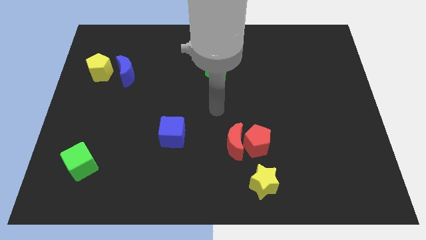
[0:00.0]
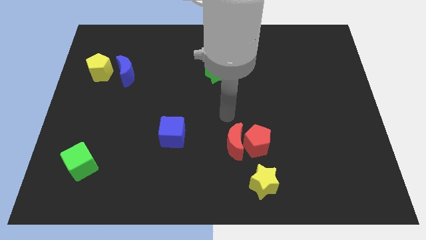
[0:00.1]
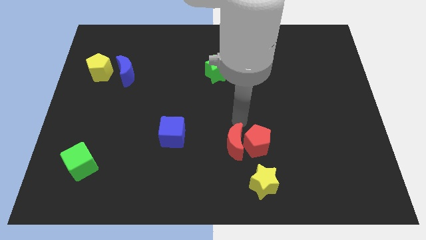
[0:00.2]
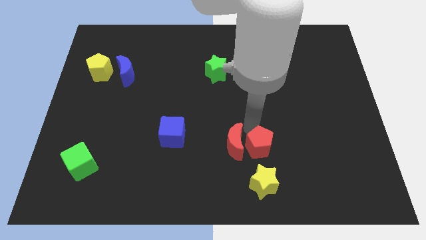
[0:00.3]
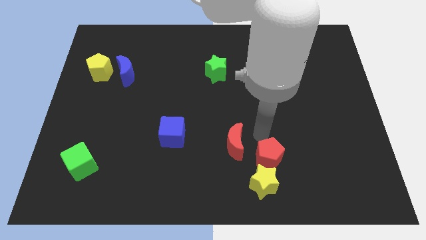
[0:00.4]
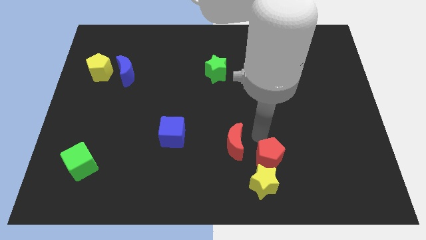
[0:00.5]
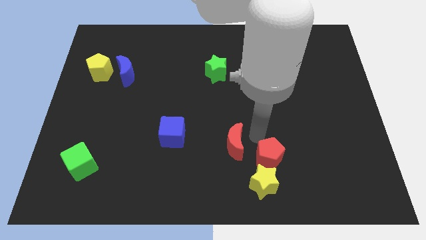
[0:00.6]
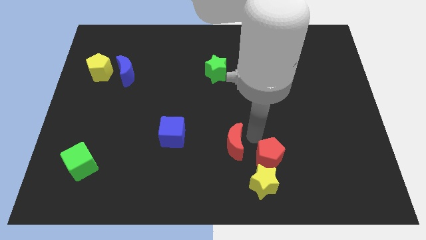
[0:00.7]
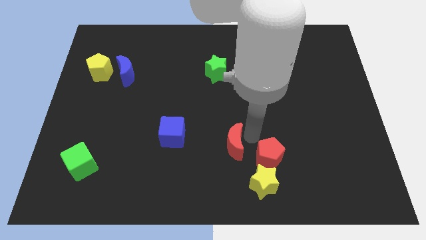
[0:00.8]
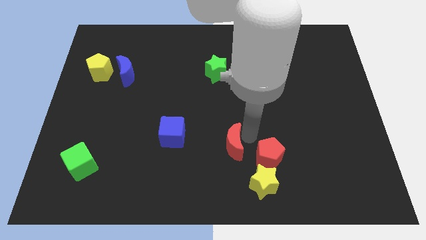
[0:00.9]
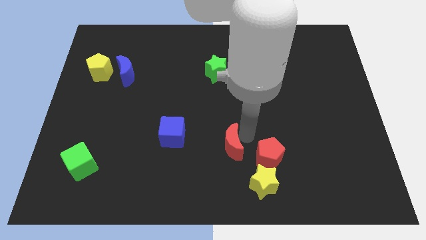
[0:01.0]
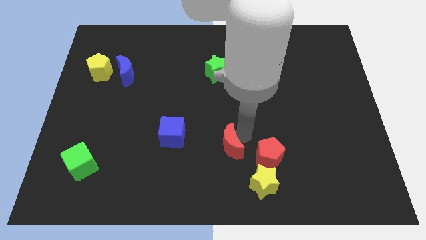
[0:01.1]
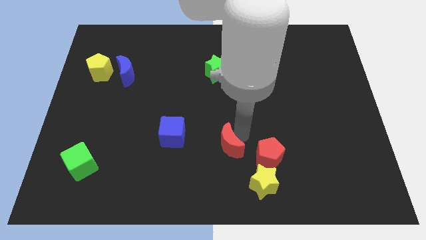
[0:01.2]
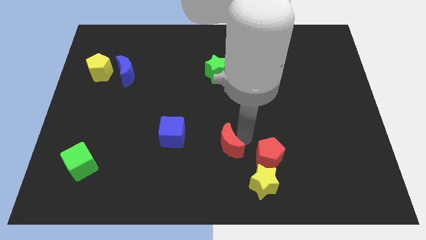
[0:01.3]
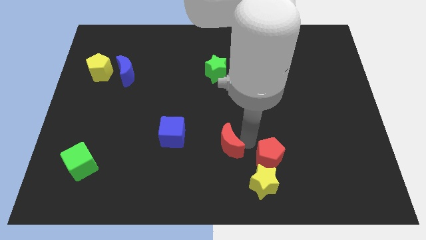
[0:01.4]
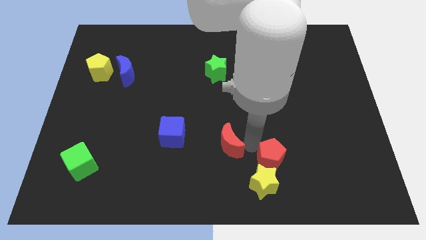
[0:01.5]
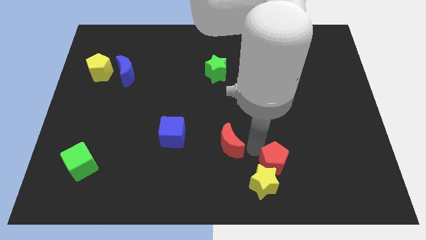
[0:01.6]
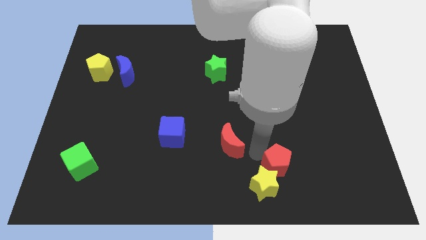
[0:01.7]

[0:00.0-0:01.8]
move the red moon away from the red pentagon

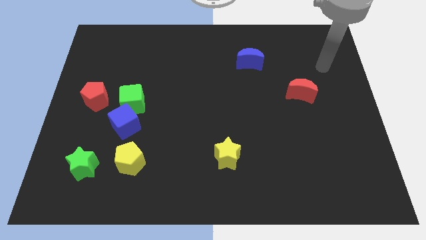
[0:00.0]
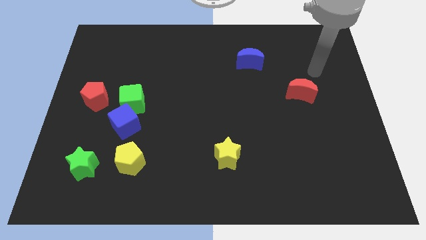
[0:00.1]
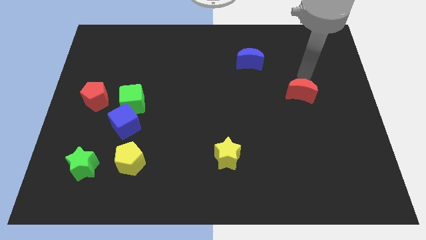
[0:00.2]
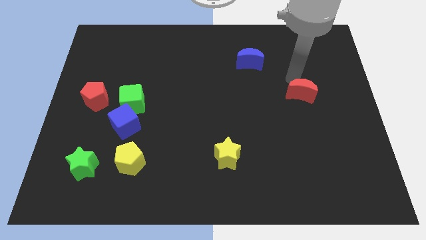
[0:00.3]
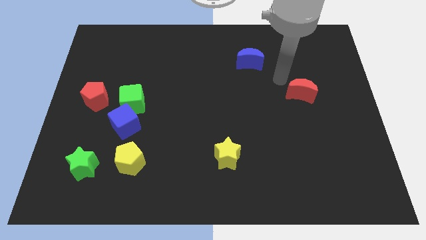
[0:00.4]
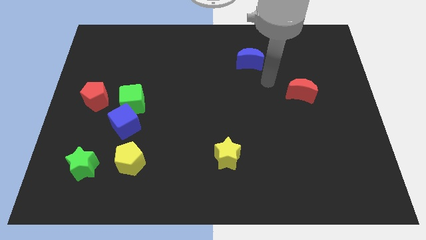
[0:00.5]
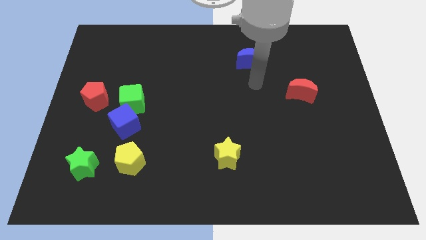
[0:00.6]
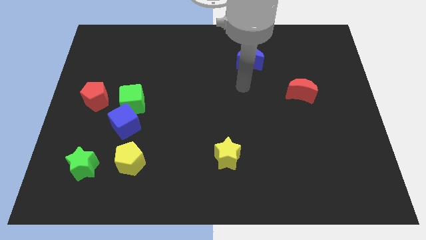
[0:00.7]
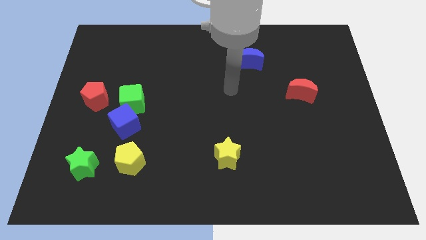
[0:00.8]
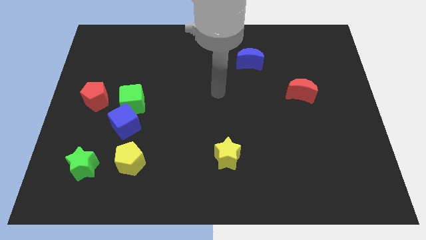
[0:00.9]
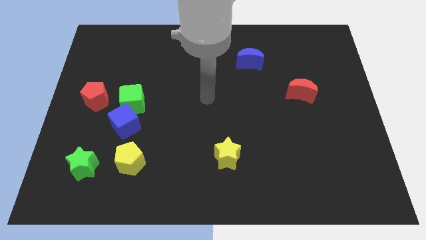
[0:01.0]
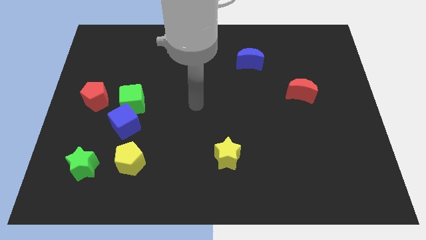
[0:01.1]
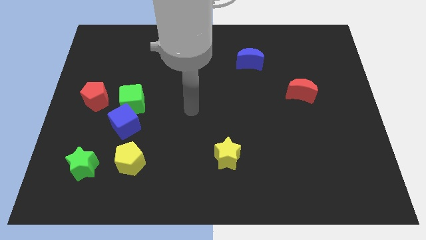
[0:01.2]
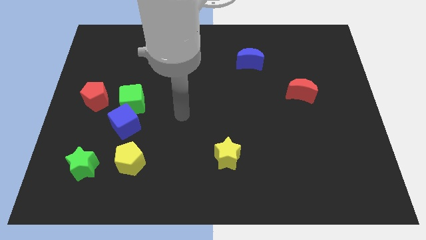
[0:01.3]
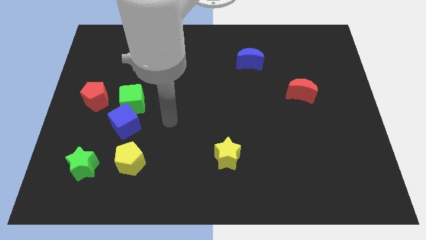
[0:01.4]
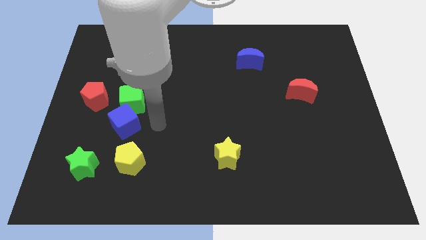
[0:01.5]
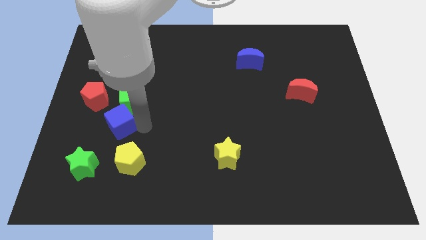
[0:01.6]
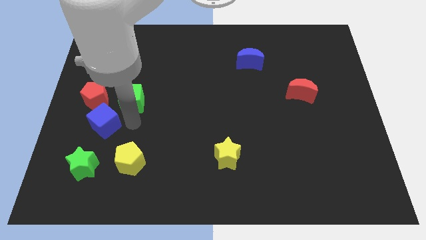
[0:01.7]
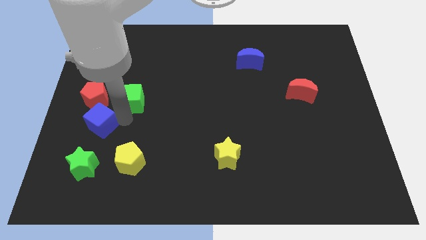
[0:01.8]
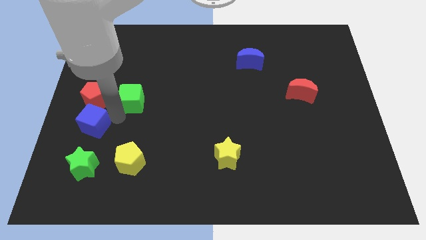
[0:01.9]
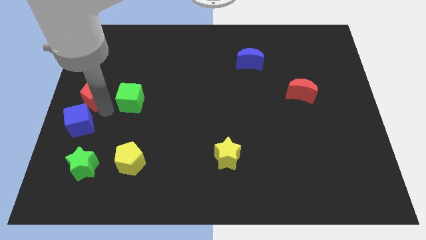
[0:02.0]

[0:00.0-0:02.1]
separate the green cube from the blue cube and red pentagon

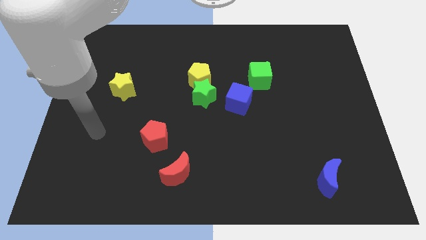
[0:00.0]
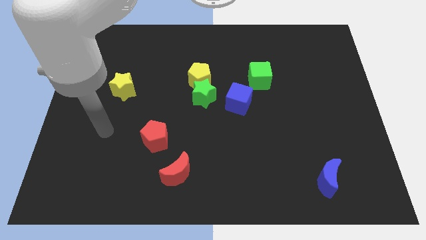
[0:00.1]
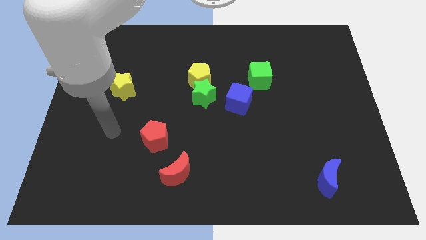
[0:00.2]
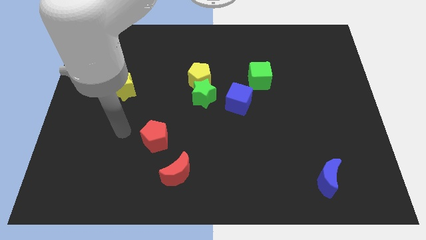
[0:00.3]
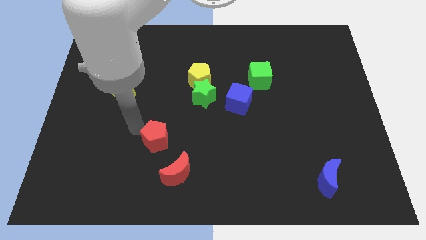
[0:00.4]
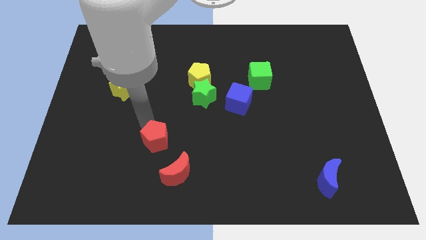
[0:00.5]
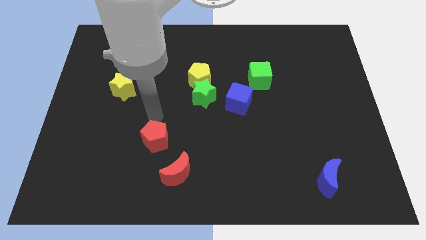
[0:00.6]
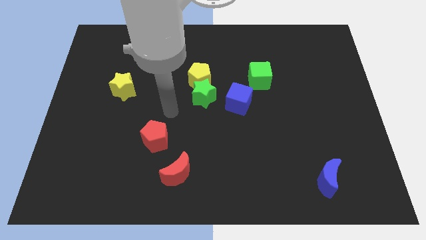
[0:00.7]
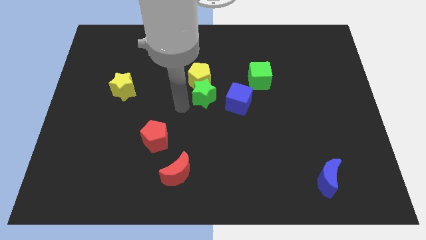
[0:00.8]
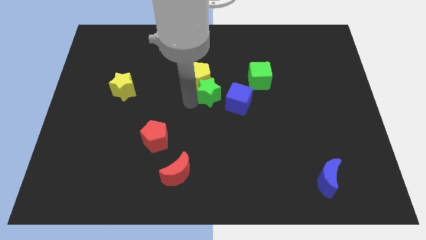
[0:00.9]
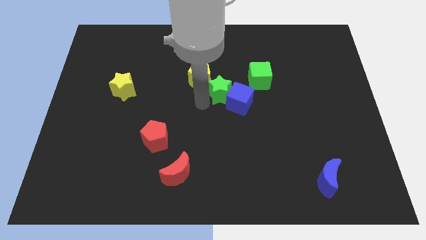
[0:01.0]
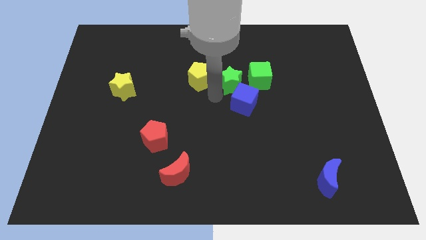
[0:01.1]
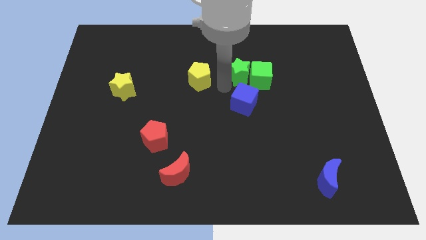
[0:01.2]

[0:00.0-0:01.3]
separate the yellow pentagon from the green star

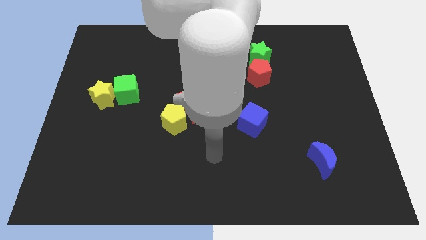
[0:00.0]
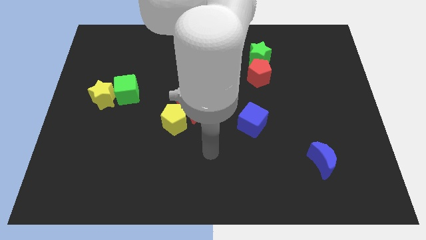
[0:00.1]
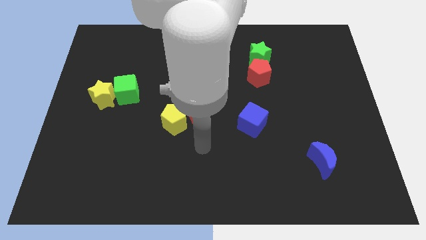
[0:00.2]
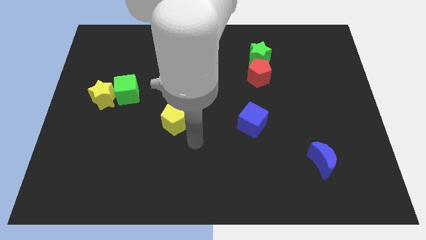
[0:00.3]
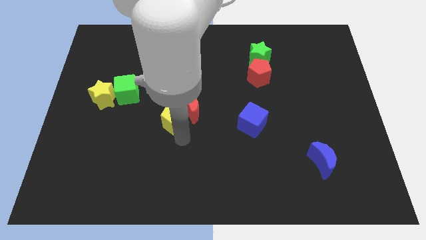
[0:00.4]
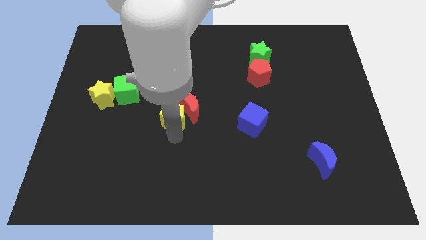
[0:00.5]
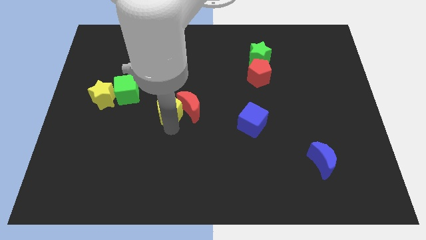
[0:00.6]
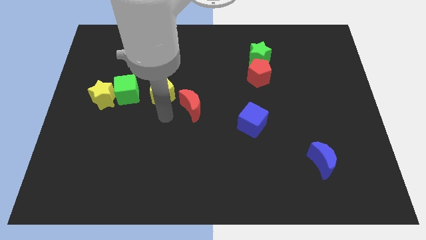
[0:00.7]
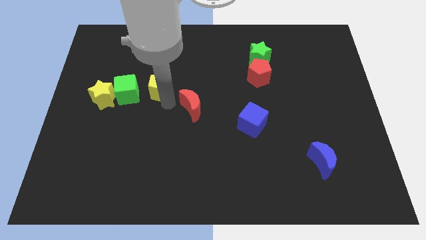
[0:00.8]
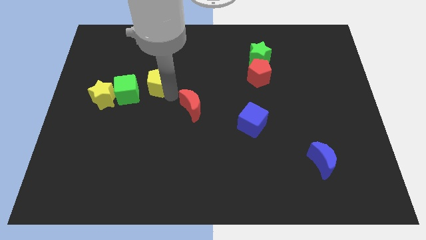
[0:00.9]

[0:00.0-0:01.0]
pull the red moon apart from the yellow pentagon

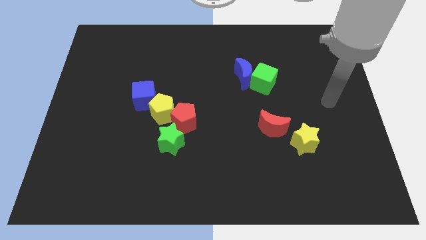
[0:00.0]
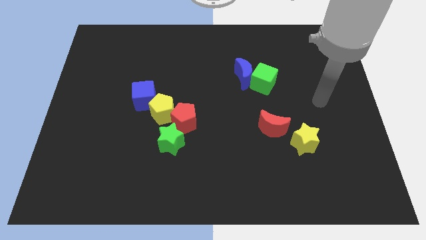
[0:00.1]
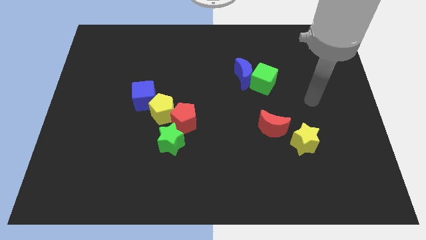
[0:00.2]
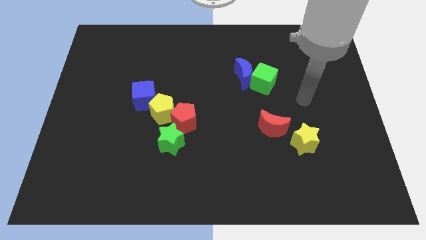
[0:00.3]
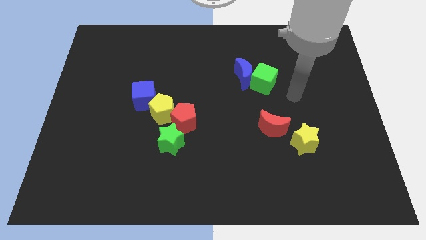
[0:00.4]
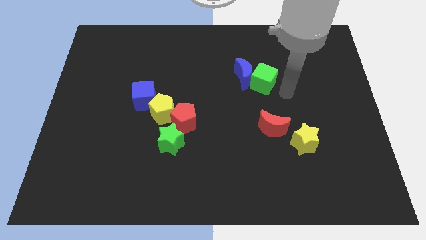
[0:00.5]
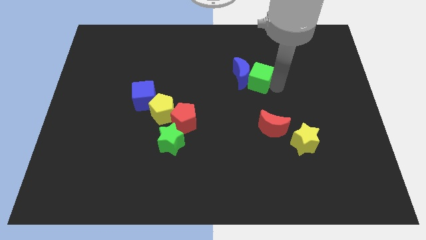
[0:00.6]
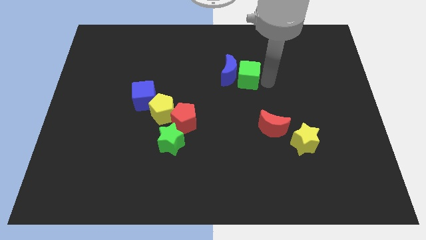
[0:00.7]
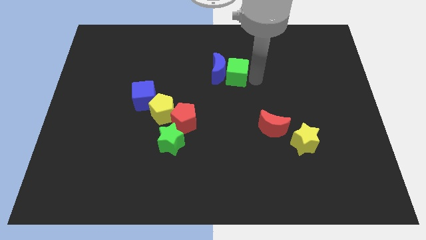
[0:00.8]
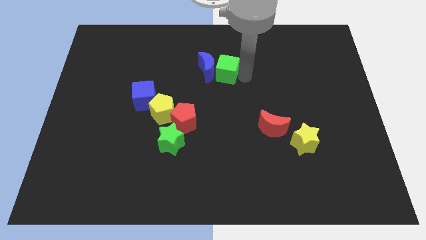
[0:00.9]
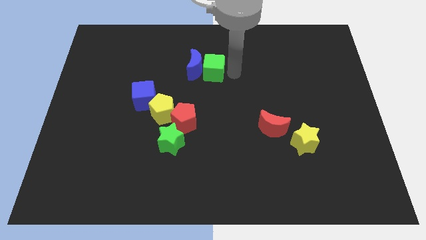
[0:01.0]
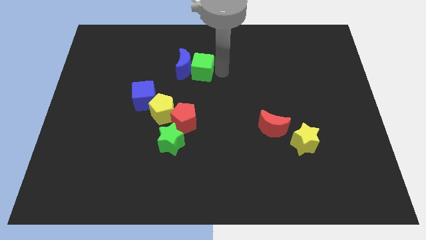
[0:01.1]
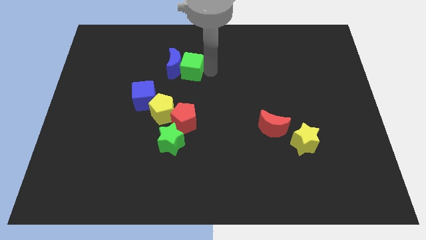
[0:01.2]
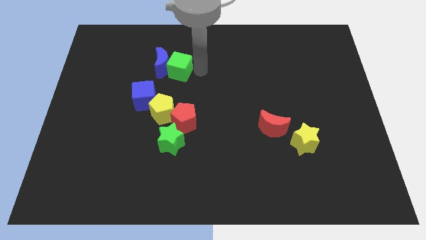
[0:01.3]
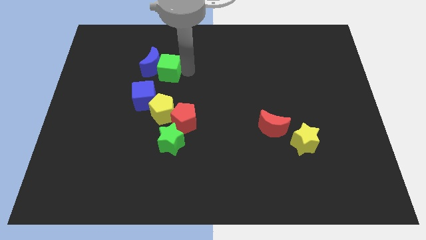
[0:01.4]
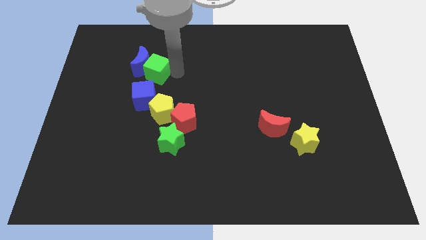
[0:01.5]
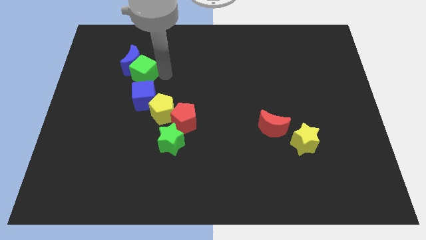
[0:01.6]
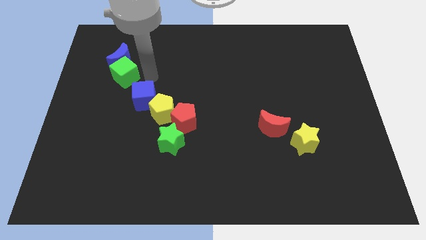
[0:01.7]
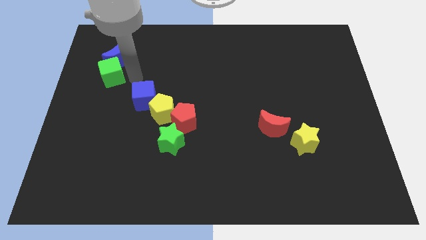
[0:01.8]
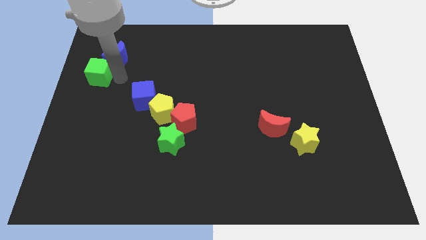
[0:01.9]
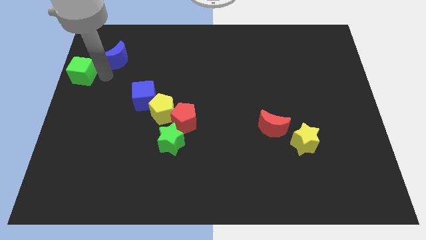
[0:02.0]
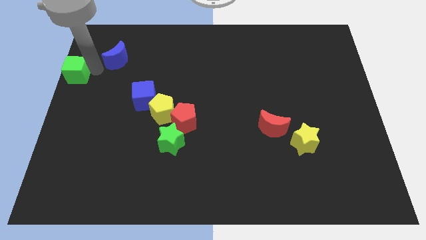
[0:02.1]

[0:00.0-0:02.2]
pull the blue moon apart from the green cube

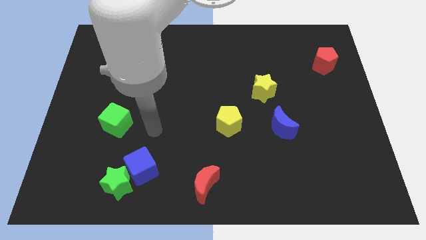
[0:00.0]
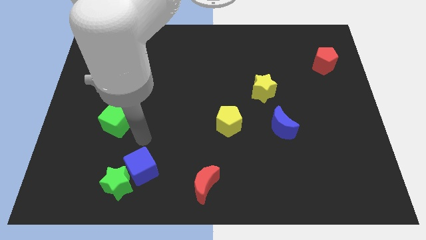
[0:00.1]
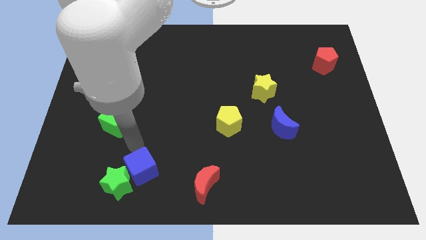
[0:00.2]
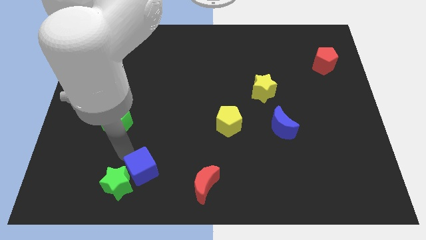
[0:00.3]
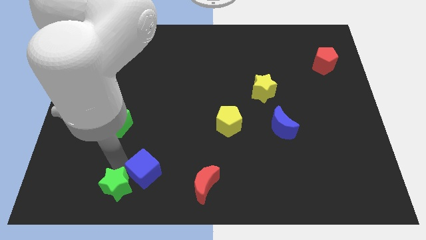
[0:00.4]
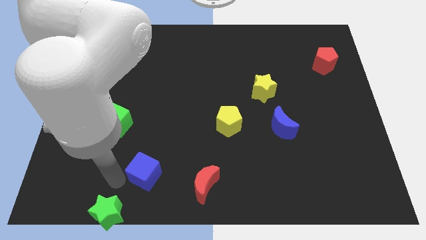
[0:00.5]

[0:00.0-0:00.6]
separate the blue cube from the green star

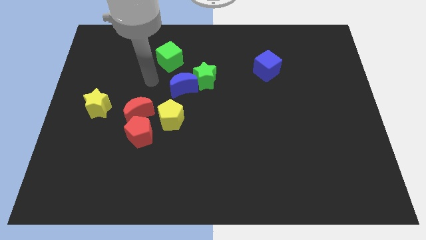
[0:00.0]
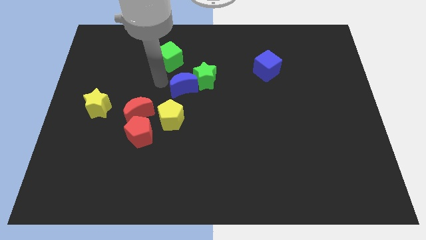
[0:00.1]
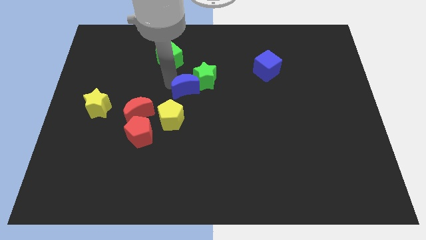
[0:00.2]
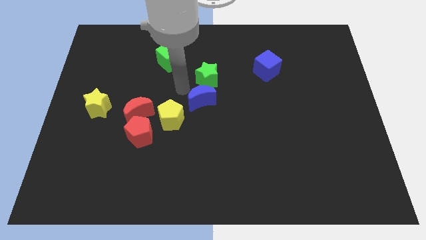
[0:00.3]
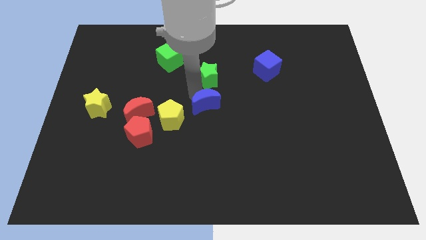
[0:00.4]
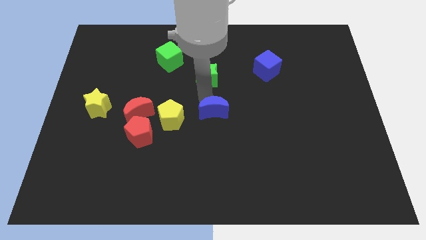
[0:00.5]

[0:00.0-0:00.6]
separate the green star from the blue moon
